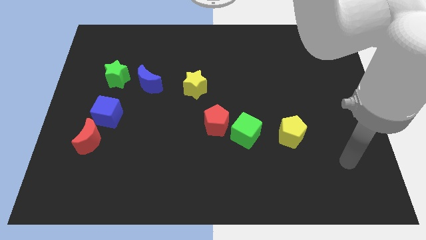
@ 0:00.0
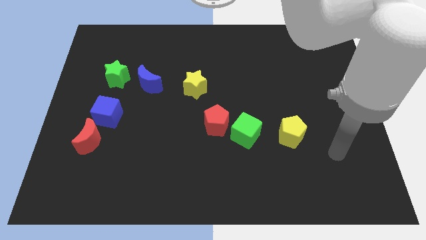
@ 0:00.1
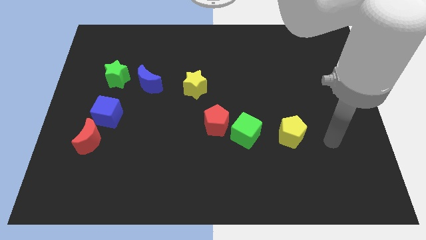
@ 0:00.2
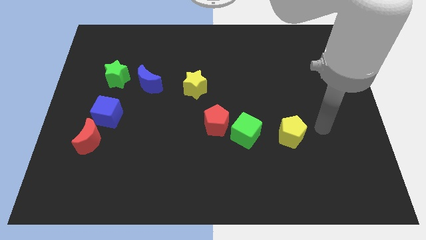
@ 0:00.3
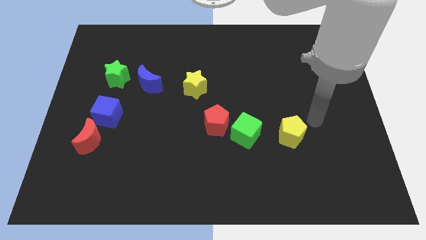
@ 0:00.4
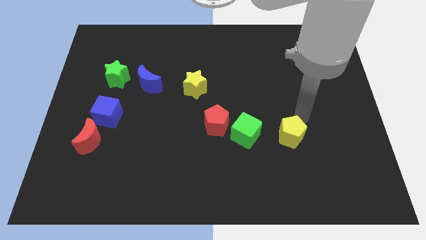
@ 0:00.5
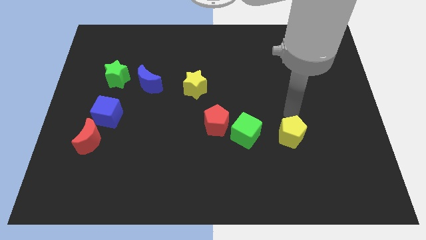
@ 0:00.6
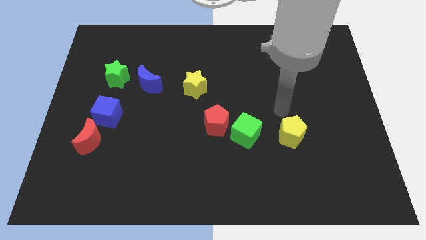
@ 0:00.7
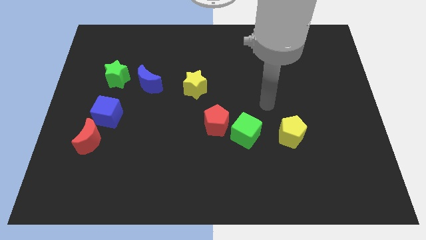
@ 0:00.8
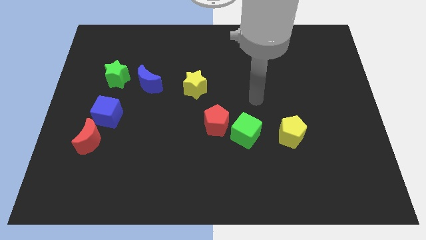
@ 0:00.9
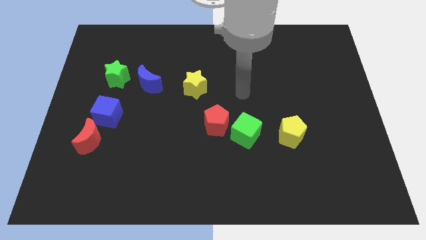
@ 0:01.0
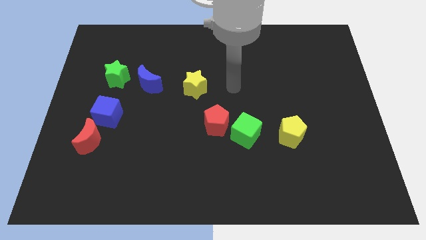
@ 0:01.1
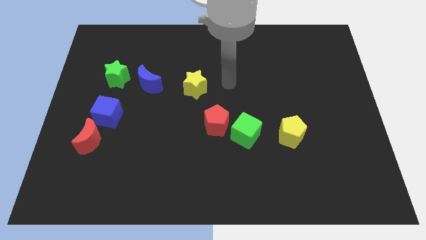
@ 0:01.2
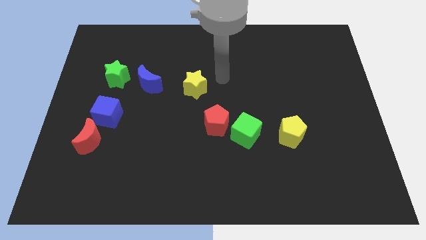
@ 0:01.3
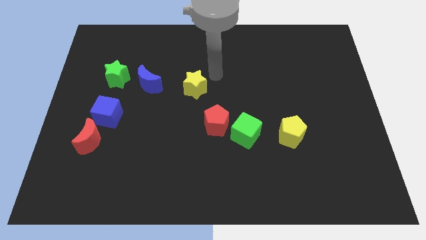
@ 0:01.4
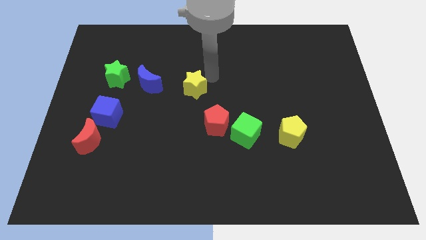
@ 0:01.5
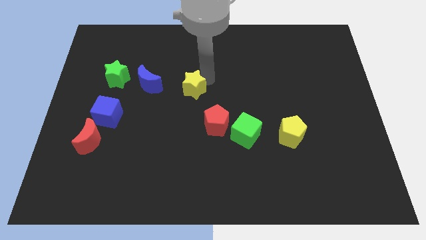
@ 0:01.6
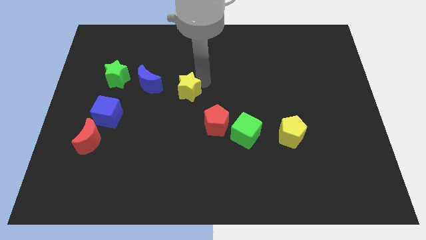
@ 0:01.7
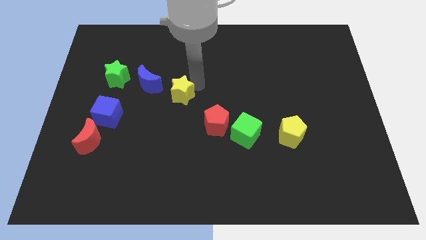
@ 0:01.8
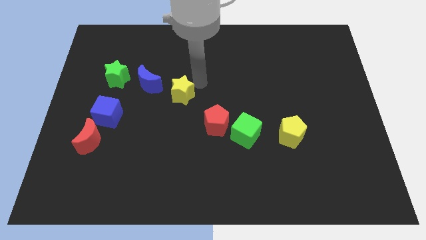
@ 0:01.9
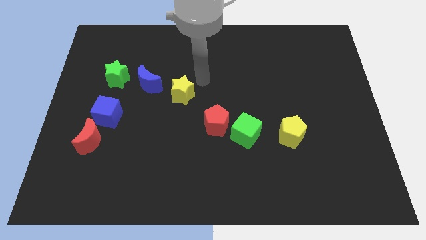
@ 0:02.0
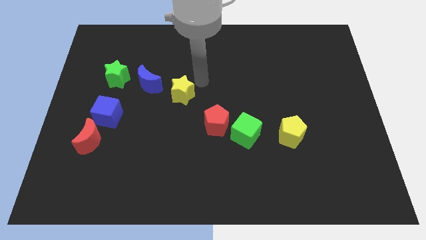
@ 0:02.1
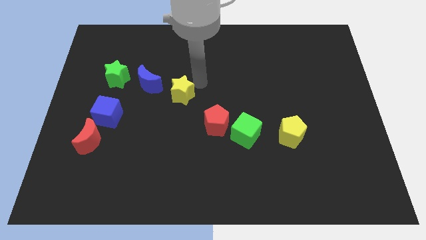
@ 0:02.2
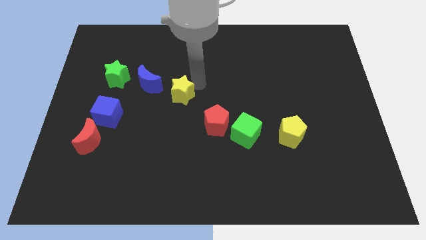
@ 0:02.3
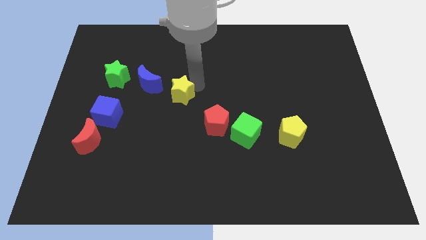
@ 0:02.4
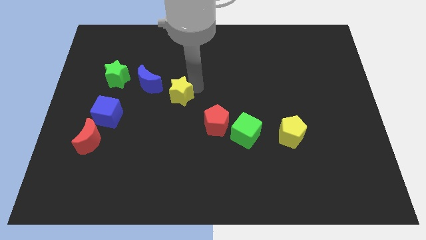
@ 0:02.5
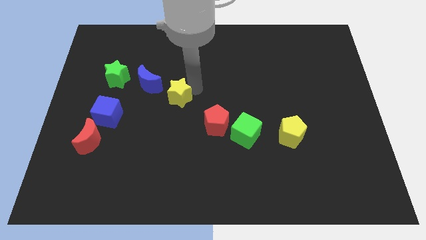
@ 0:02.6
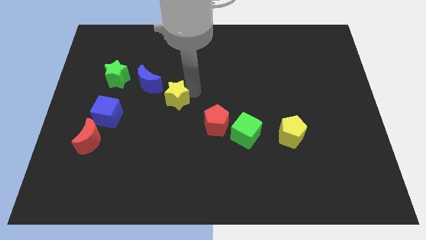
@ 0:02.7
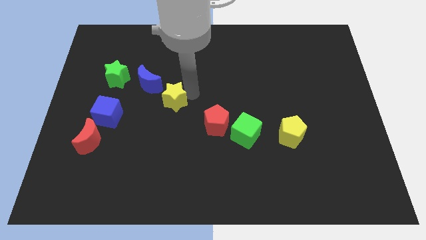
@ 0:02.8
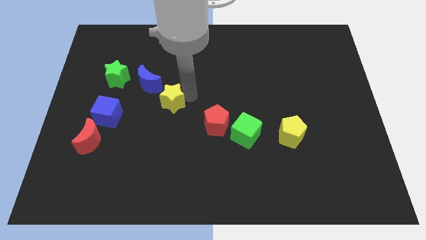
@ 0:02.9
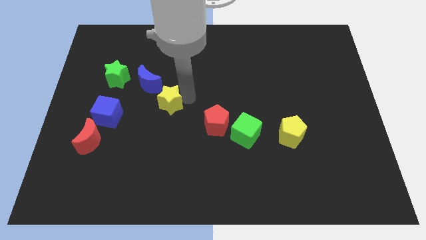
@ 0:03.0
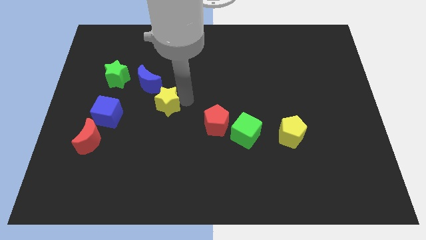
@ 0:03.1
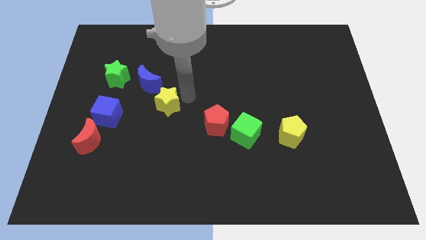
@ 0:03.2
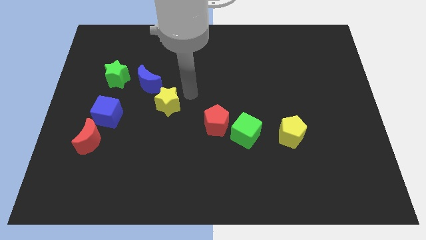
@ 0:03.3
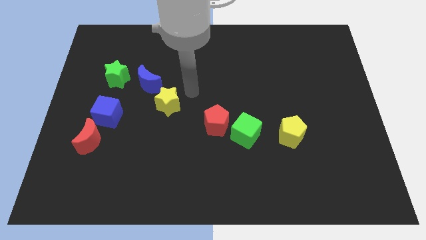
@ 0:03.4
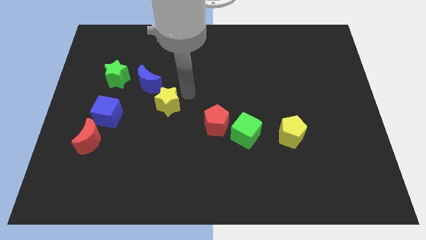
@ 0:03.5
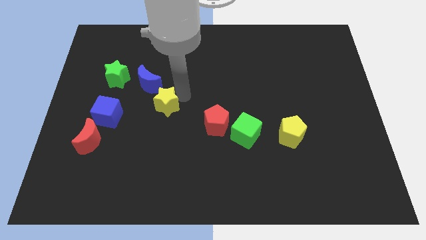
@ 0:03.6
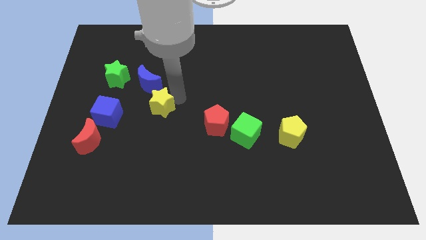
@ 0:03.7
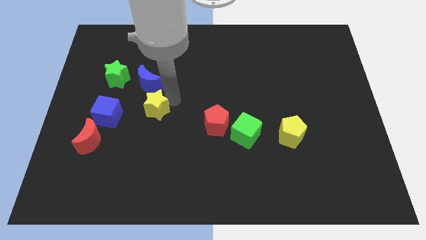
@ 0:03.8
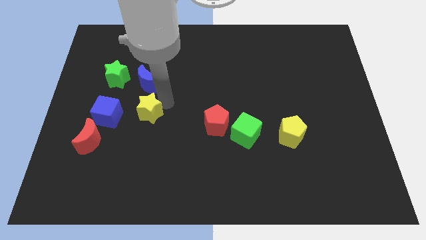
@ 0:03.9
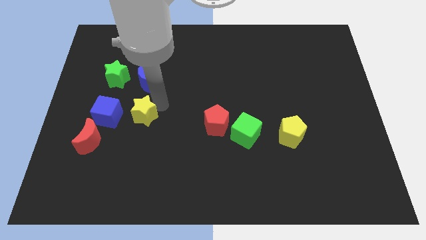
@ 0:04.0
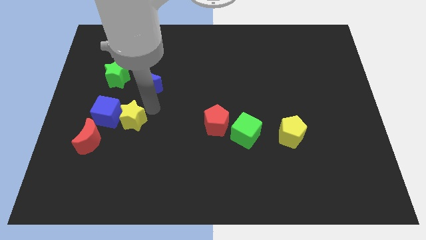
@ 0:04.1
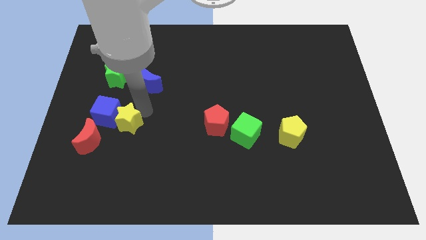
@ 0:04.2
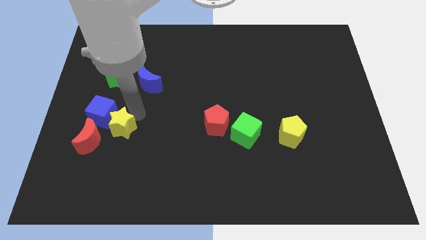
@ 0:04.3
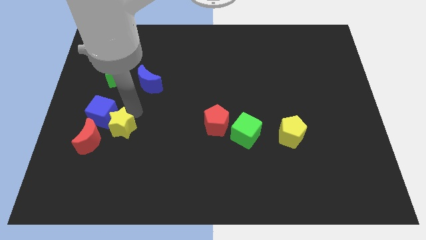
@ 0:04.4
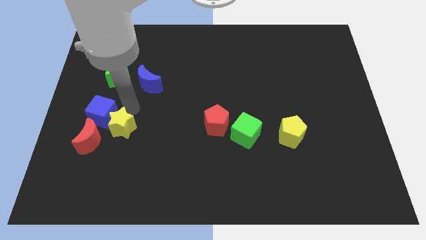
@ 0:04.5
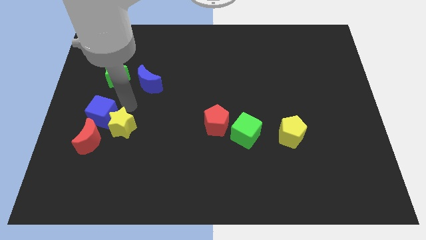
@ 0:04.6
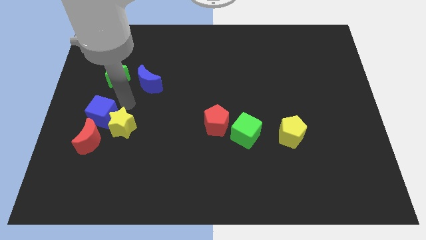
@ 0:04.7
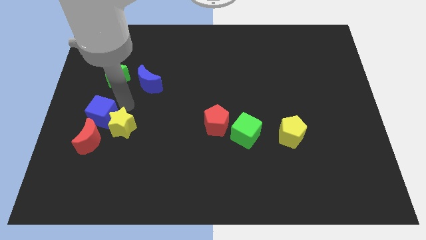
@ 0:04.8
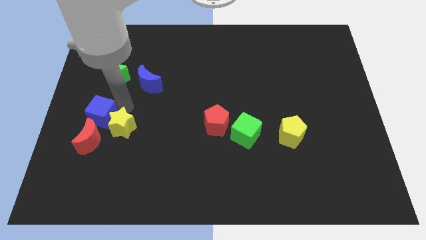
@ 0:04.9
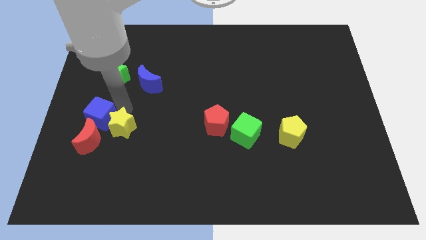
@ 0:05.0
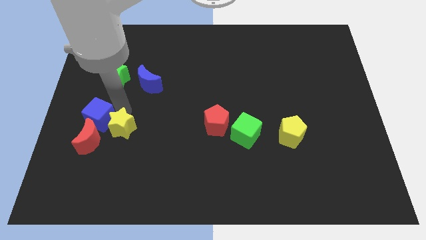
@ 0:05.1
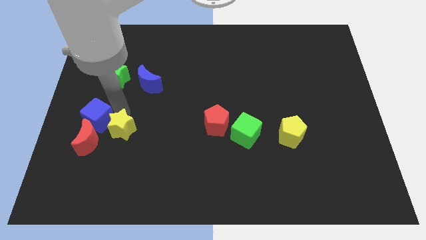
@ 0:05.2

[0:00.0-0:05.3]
move the yellow star down and to the left

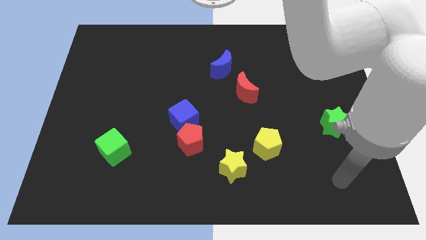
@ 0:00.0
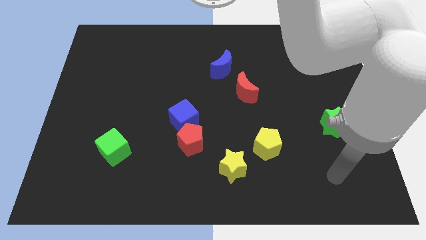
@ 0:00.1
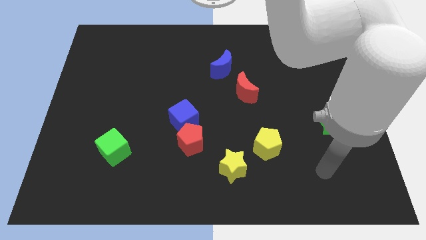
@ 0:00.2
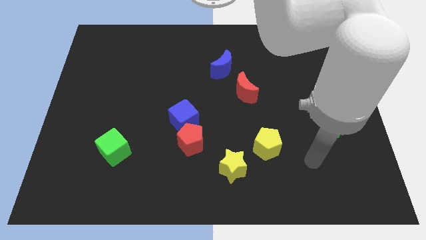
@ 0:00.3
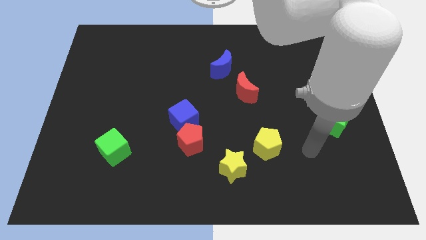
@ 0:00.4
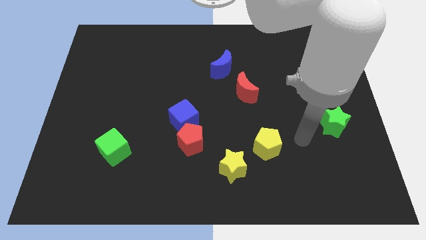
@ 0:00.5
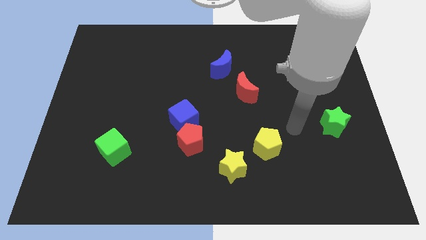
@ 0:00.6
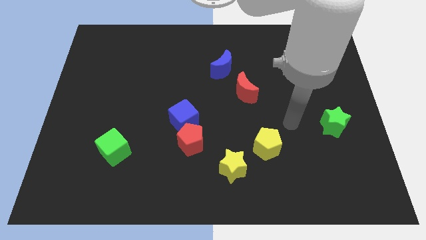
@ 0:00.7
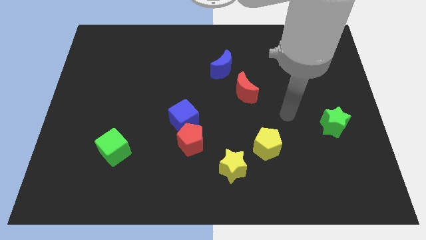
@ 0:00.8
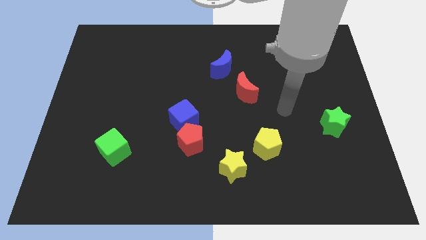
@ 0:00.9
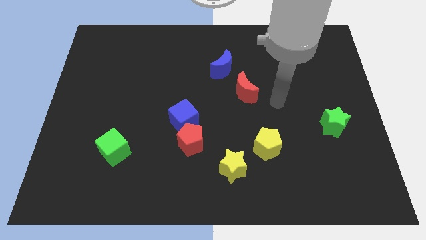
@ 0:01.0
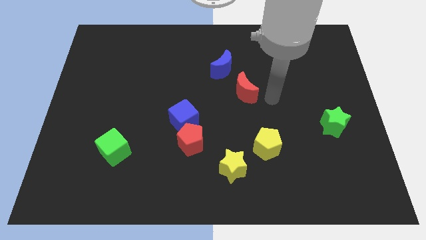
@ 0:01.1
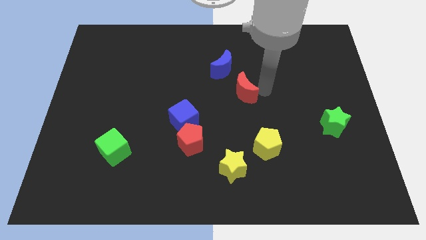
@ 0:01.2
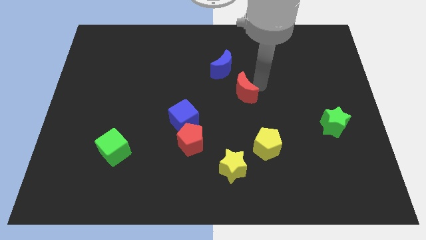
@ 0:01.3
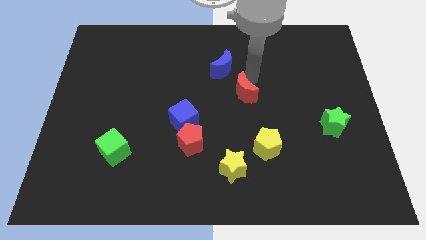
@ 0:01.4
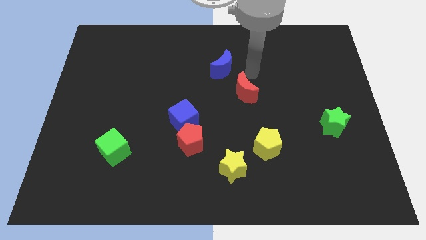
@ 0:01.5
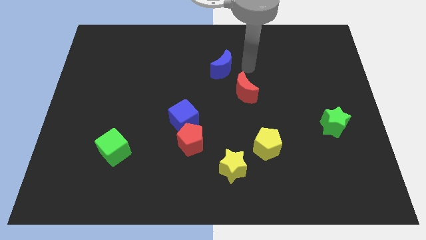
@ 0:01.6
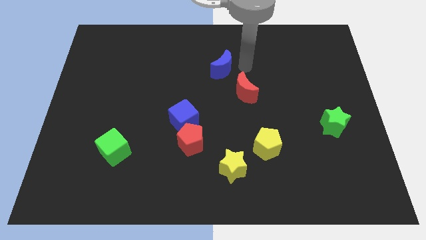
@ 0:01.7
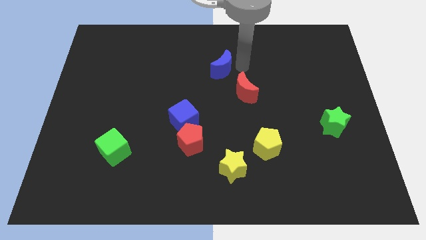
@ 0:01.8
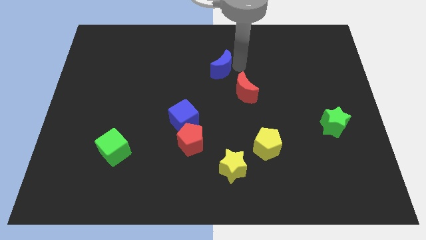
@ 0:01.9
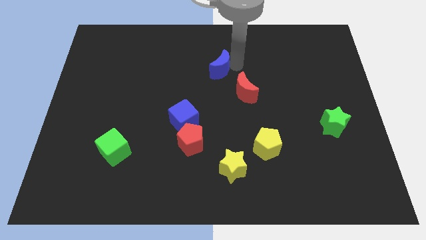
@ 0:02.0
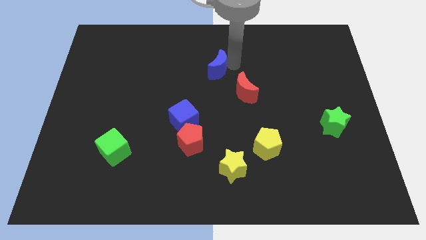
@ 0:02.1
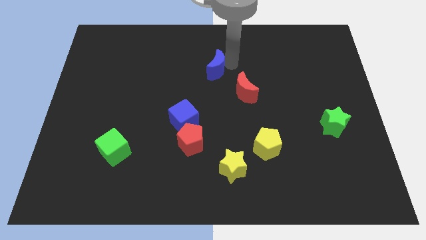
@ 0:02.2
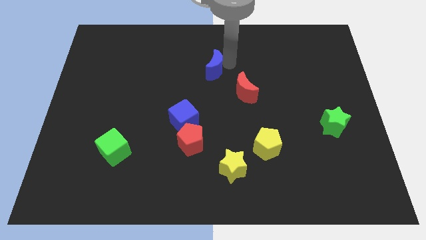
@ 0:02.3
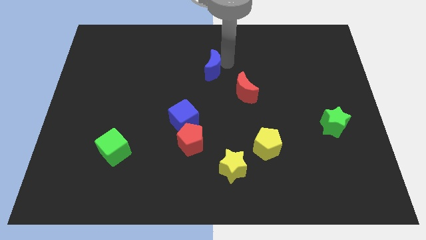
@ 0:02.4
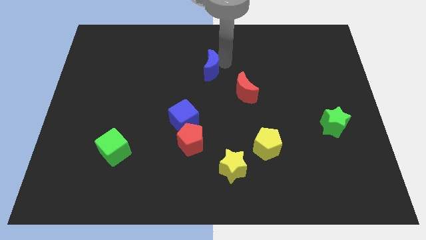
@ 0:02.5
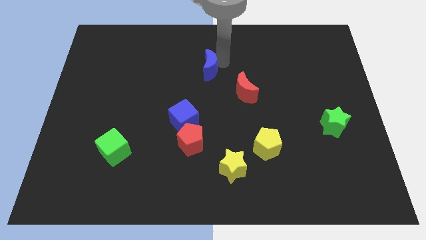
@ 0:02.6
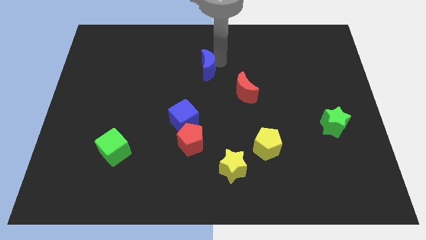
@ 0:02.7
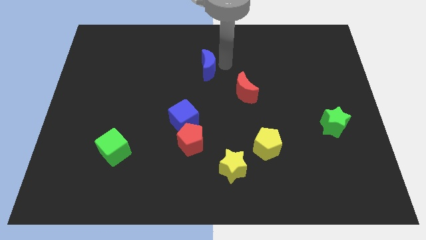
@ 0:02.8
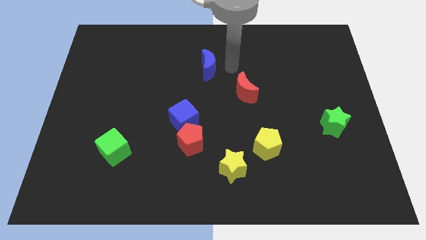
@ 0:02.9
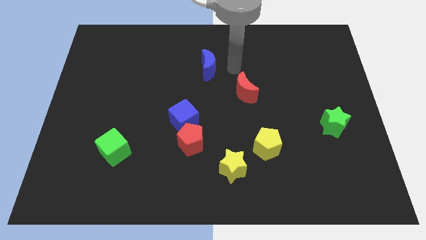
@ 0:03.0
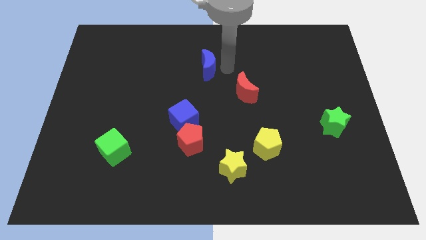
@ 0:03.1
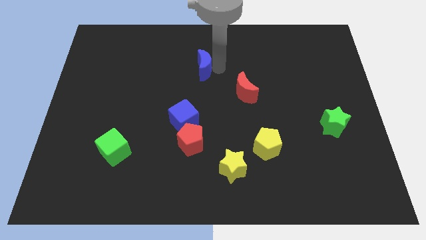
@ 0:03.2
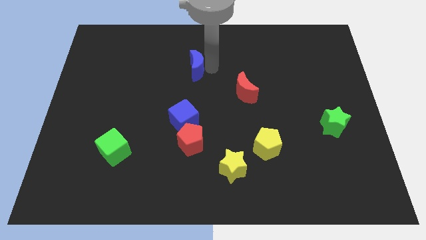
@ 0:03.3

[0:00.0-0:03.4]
move the blue moon left a little bit
